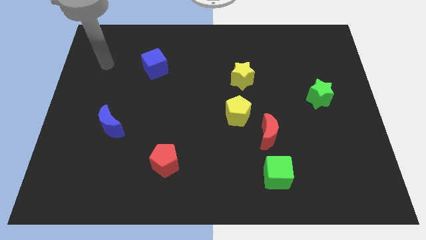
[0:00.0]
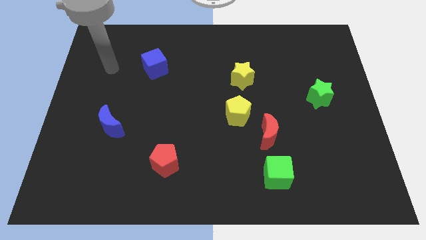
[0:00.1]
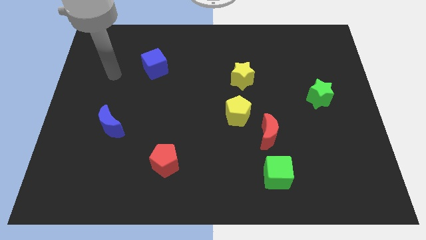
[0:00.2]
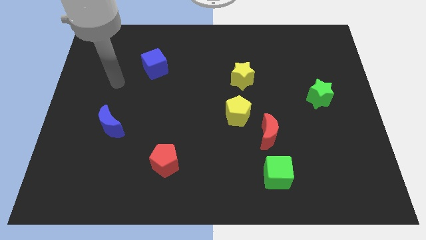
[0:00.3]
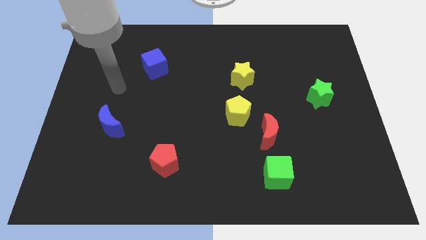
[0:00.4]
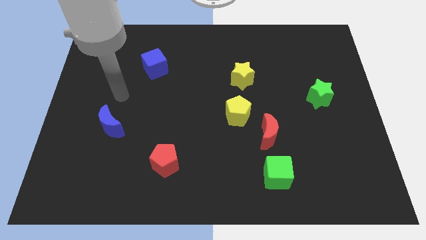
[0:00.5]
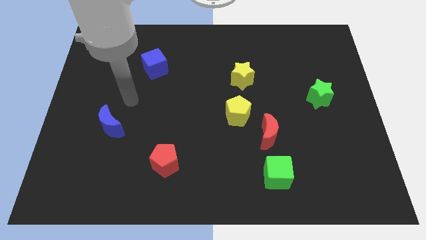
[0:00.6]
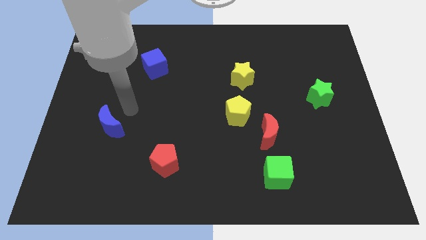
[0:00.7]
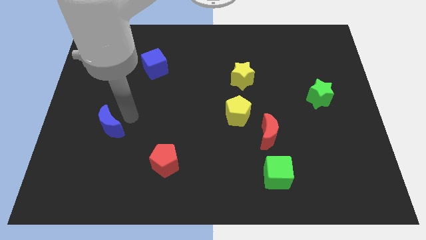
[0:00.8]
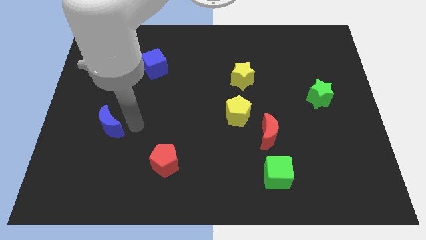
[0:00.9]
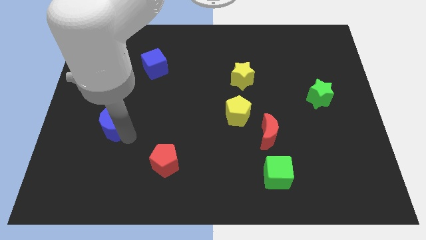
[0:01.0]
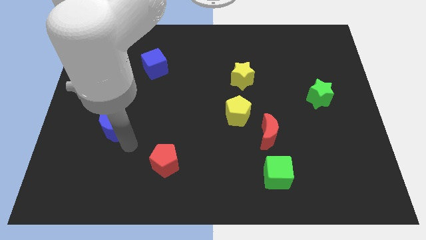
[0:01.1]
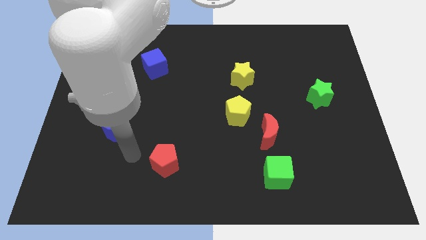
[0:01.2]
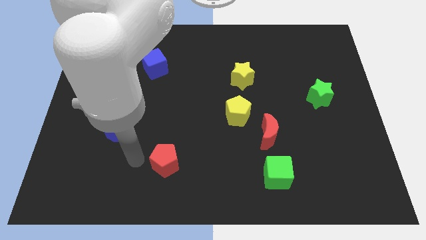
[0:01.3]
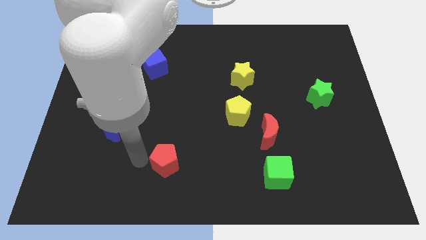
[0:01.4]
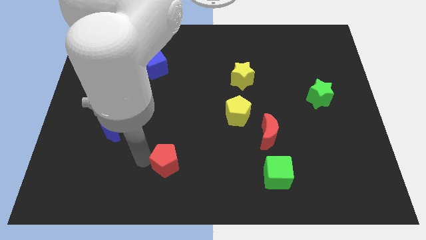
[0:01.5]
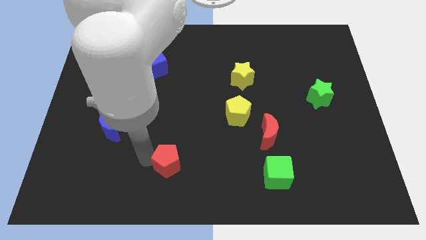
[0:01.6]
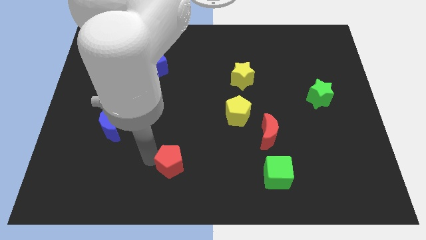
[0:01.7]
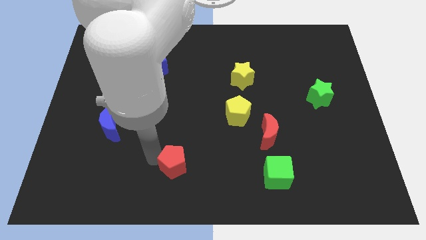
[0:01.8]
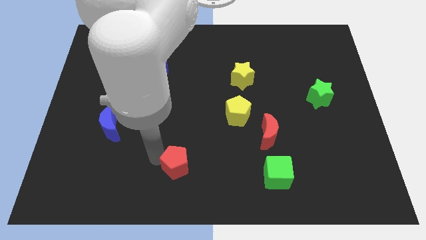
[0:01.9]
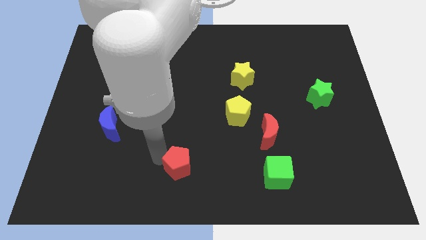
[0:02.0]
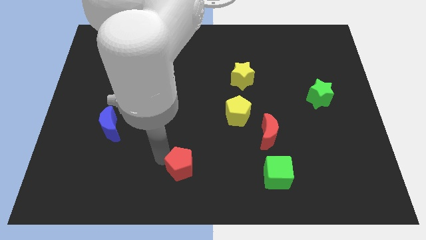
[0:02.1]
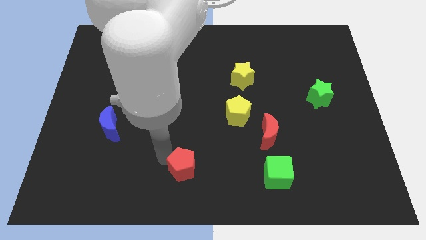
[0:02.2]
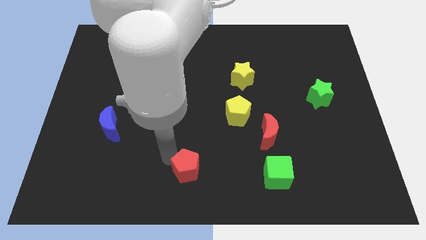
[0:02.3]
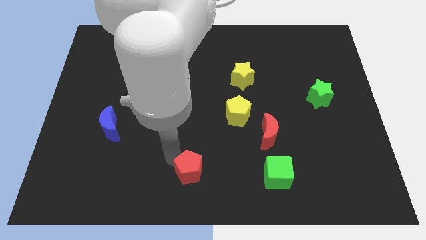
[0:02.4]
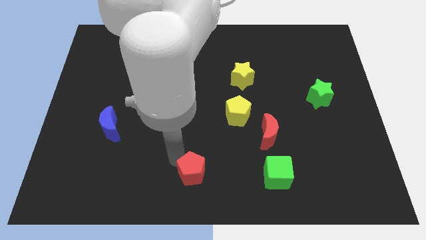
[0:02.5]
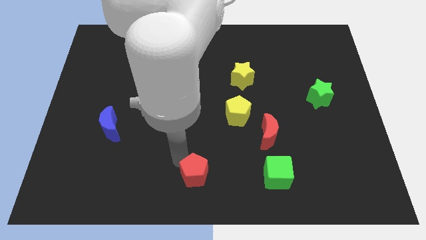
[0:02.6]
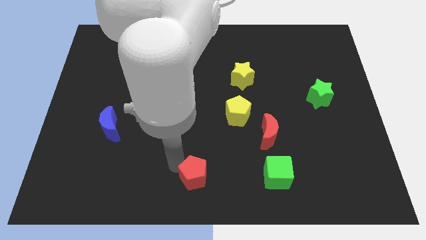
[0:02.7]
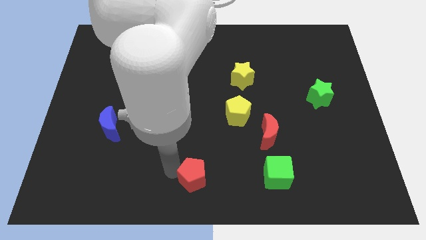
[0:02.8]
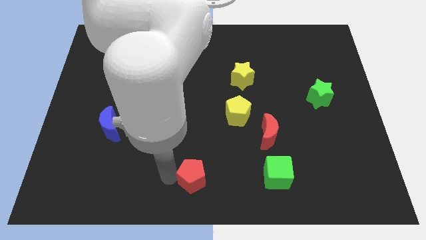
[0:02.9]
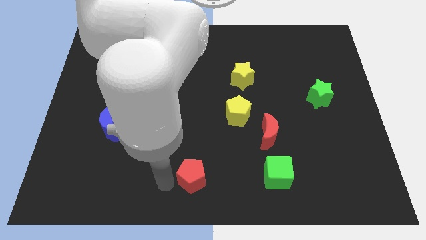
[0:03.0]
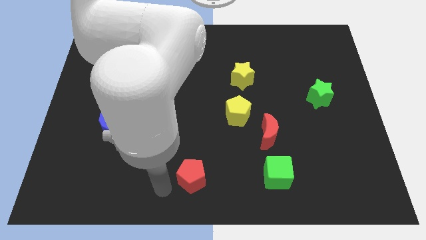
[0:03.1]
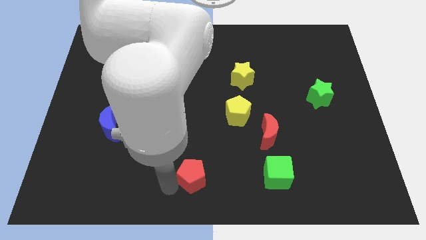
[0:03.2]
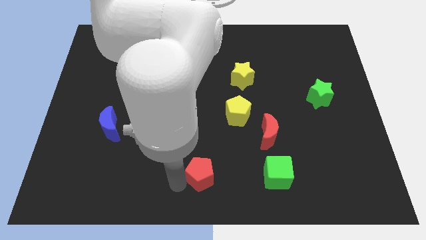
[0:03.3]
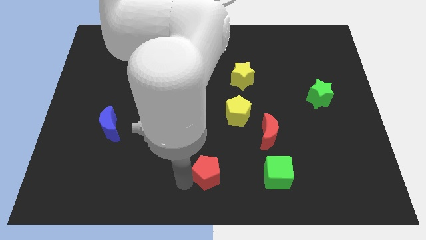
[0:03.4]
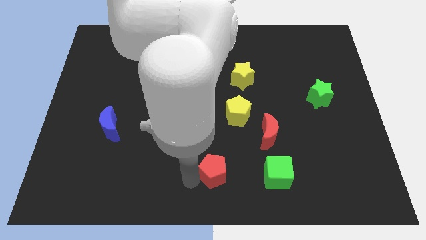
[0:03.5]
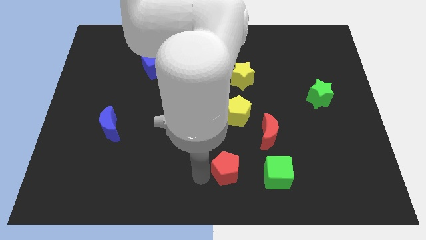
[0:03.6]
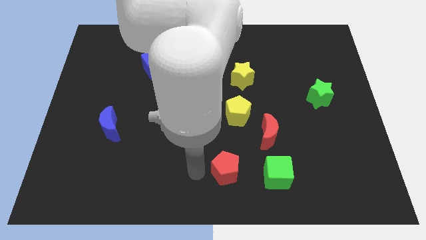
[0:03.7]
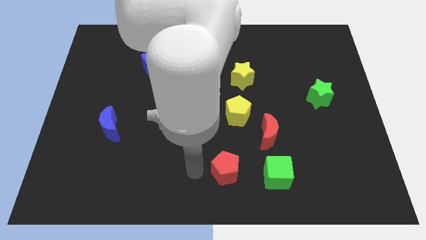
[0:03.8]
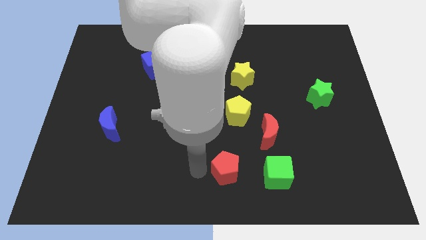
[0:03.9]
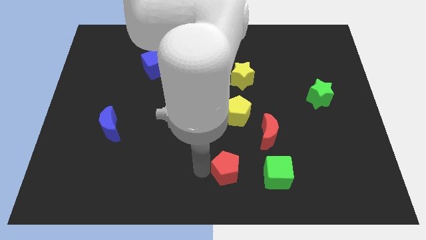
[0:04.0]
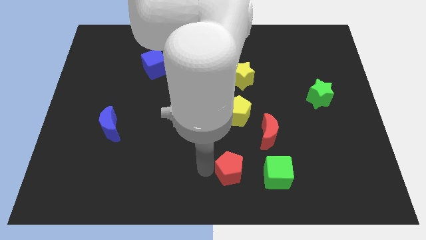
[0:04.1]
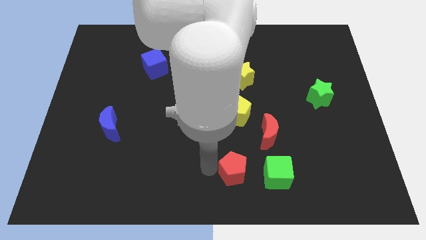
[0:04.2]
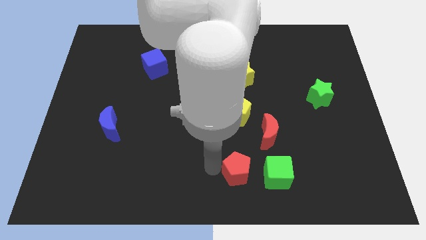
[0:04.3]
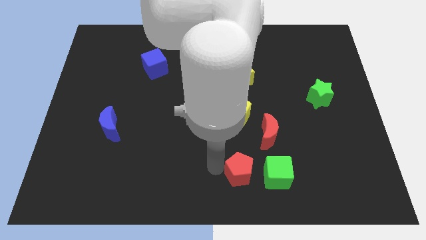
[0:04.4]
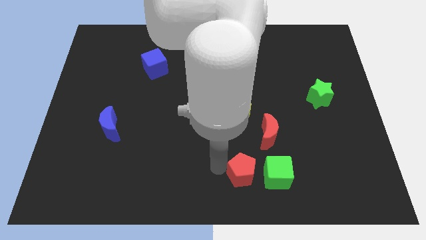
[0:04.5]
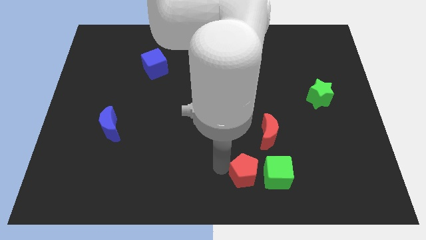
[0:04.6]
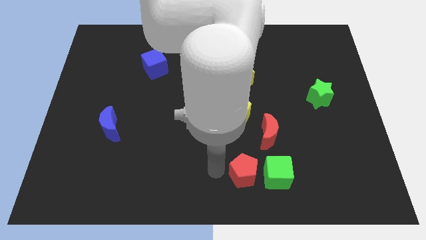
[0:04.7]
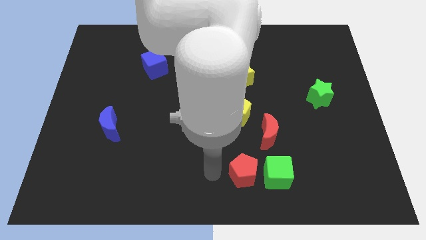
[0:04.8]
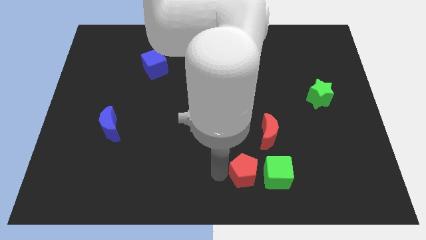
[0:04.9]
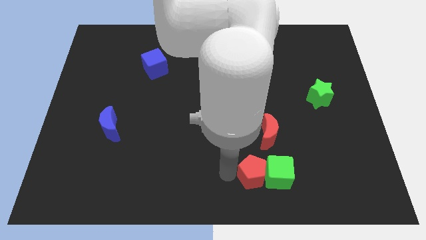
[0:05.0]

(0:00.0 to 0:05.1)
slide the red pentagon to the green cube

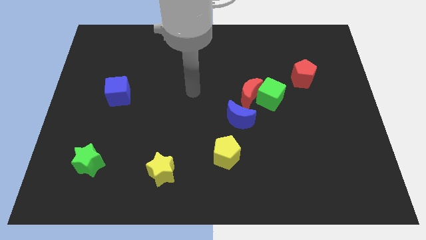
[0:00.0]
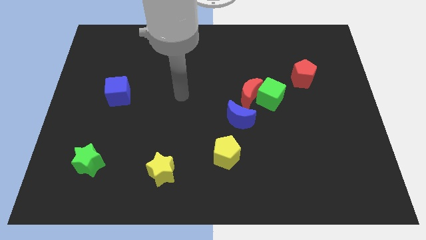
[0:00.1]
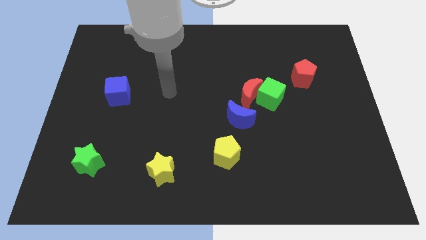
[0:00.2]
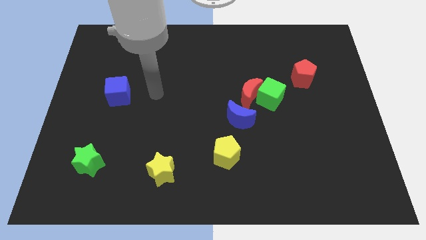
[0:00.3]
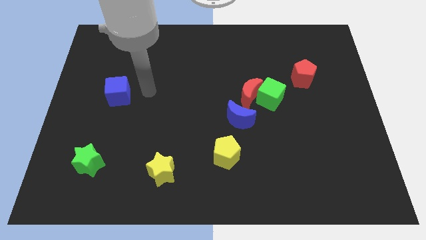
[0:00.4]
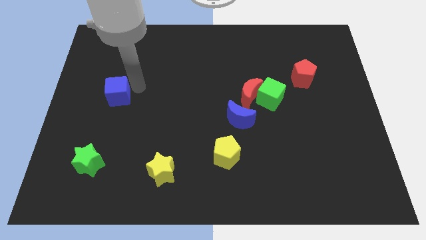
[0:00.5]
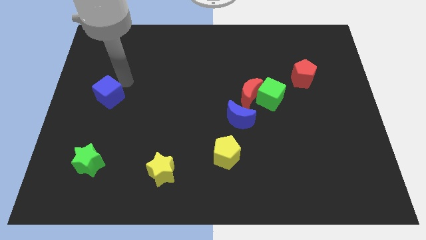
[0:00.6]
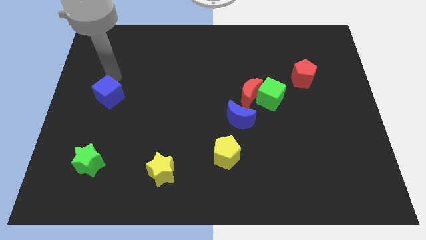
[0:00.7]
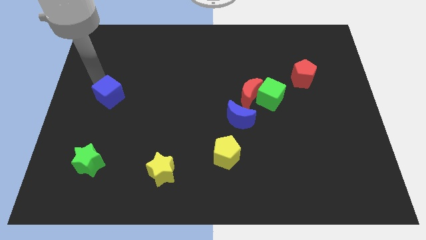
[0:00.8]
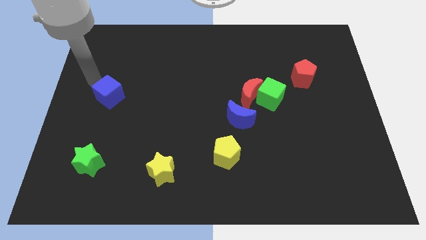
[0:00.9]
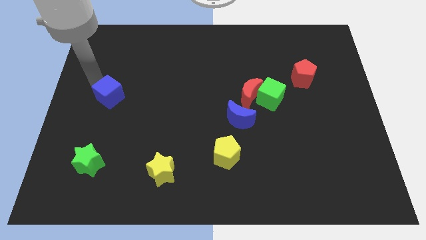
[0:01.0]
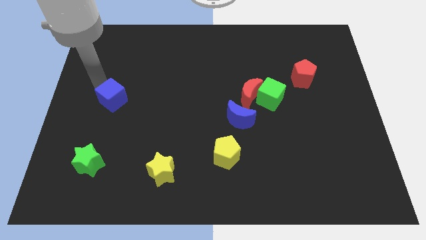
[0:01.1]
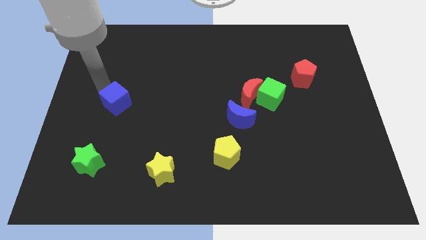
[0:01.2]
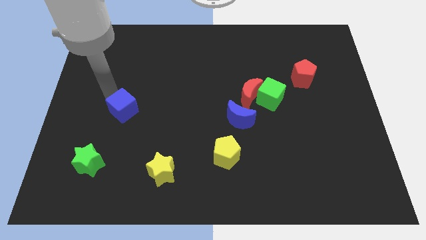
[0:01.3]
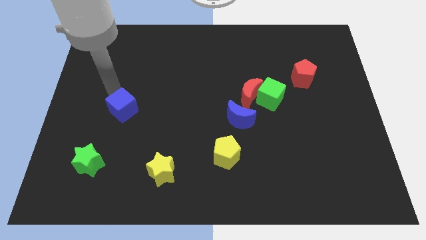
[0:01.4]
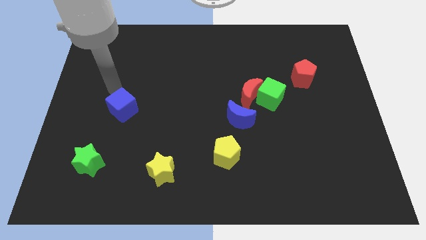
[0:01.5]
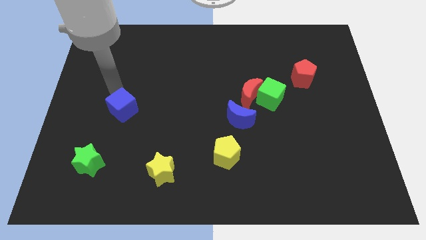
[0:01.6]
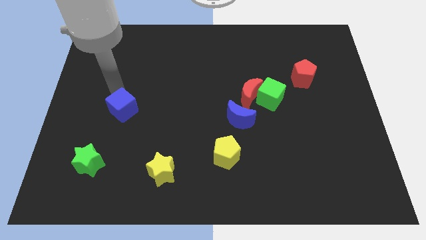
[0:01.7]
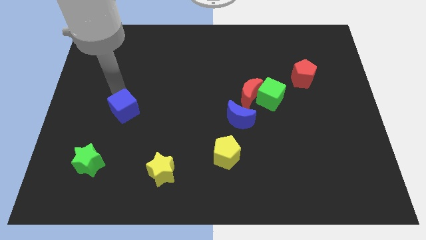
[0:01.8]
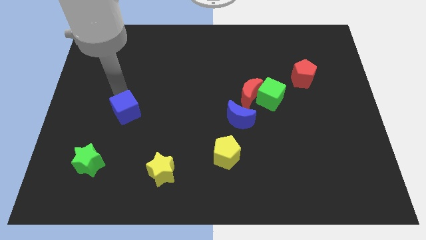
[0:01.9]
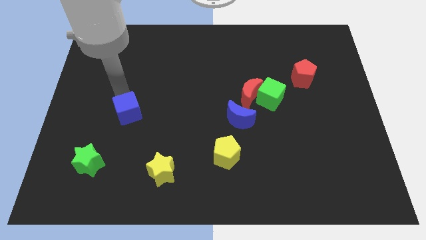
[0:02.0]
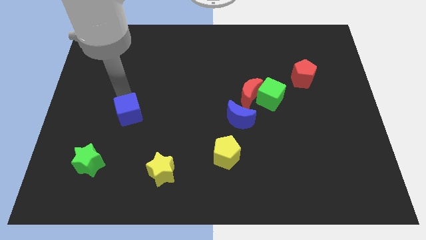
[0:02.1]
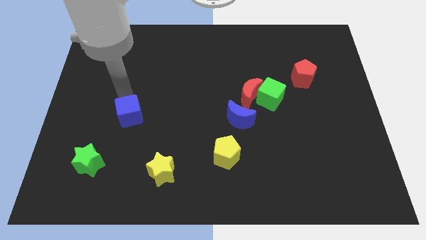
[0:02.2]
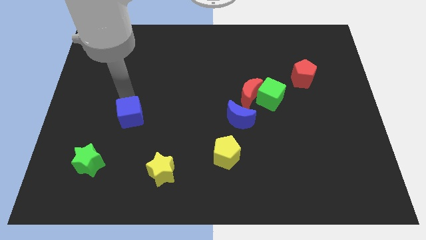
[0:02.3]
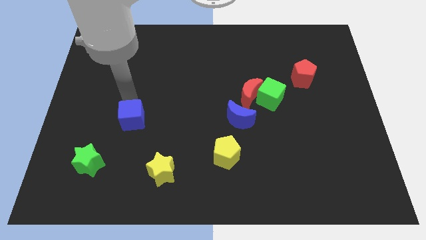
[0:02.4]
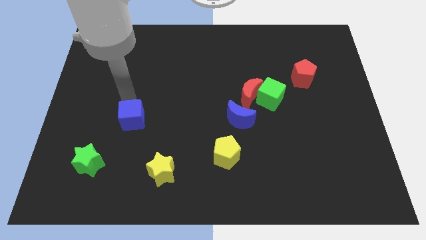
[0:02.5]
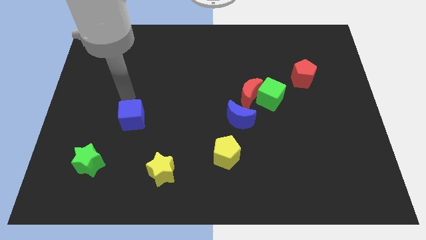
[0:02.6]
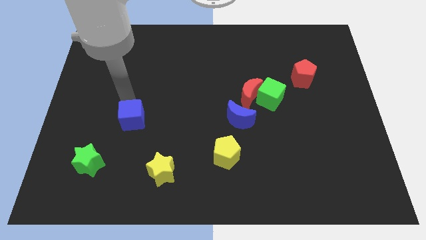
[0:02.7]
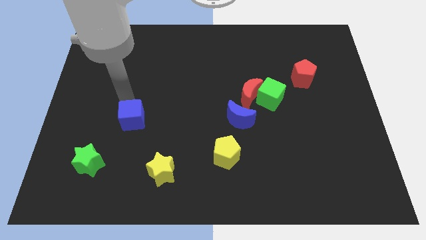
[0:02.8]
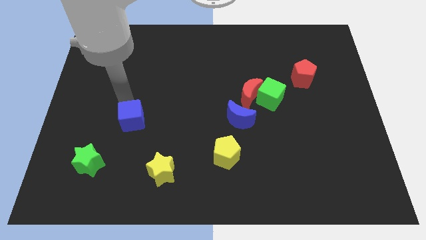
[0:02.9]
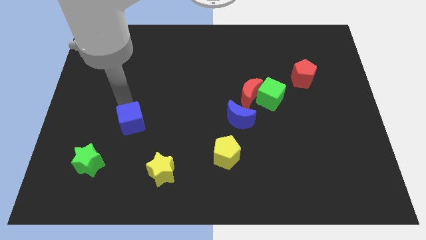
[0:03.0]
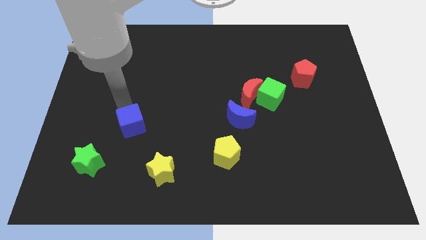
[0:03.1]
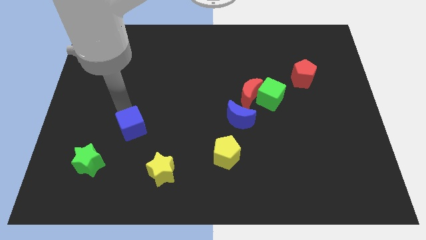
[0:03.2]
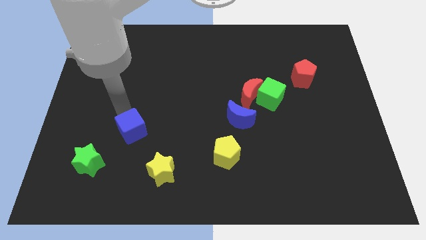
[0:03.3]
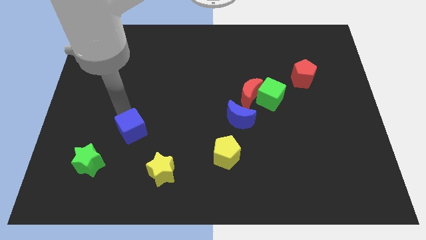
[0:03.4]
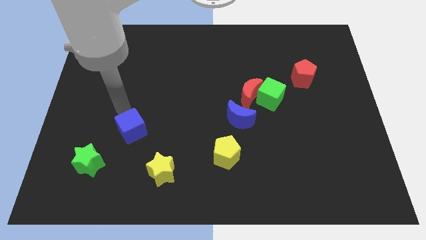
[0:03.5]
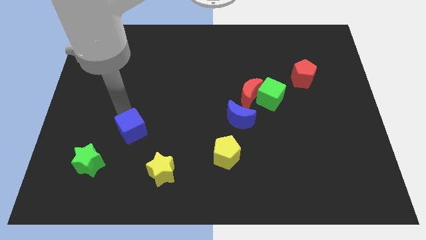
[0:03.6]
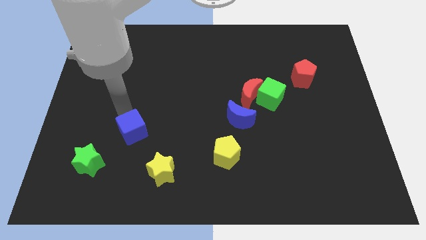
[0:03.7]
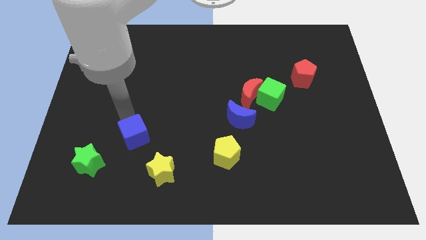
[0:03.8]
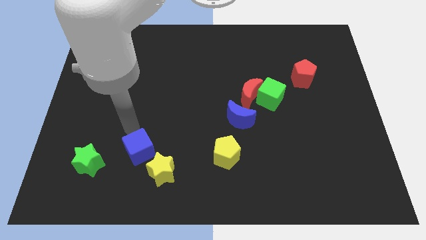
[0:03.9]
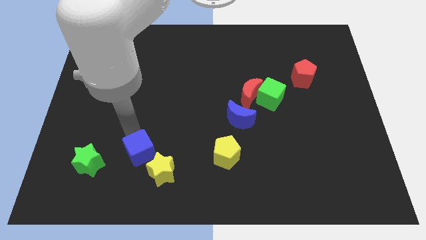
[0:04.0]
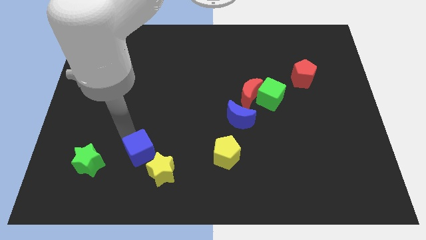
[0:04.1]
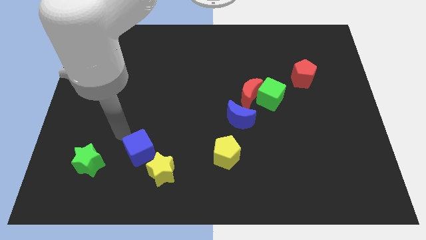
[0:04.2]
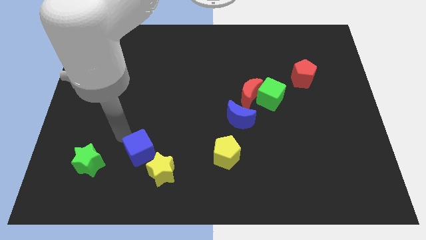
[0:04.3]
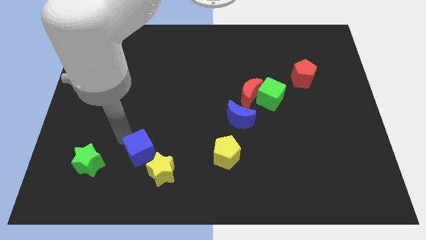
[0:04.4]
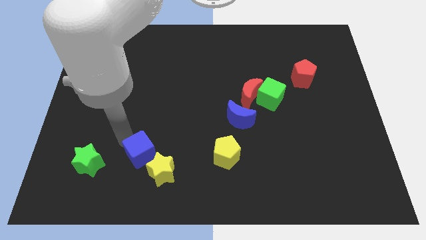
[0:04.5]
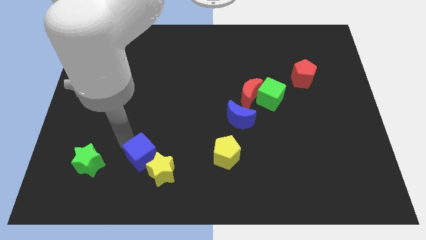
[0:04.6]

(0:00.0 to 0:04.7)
push the blue cube next to the yellow star
